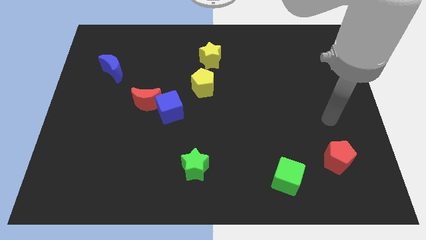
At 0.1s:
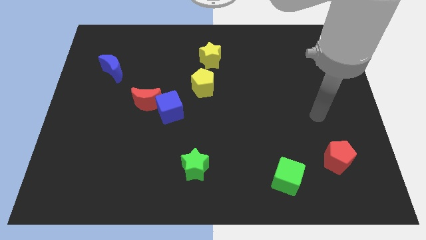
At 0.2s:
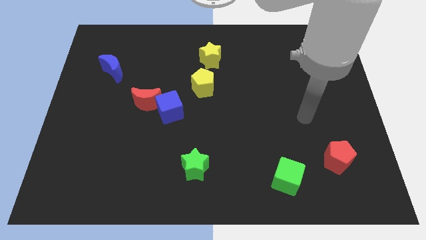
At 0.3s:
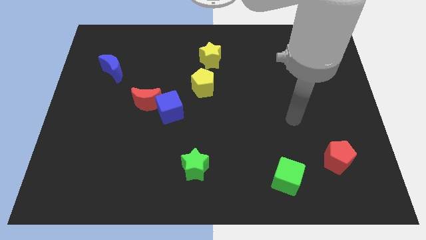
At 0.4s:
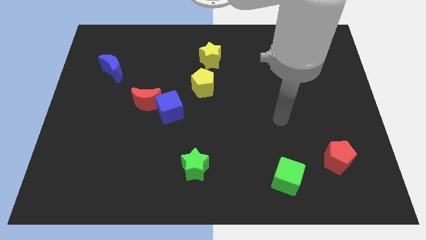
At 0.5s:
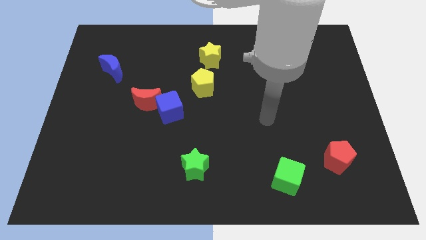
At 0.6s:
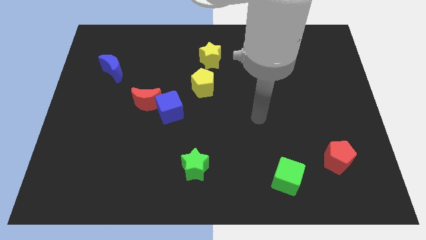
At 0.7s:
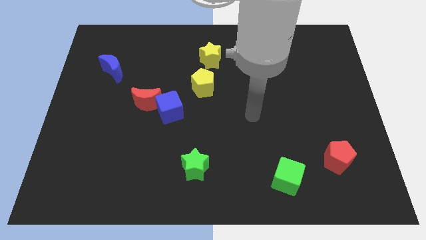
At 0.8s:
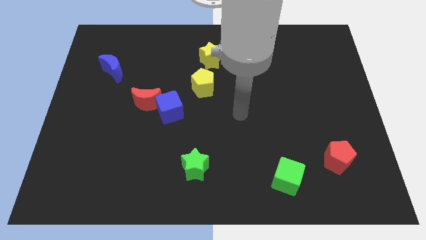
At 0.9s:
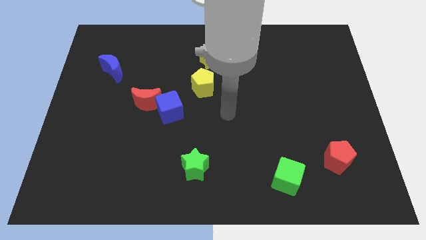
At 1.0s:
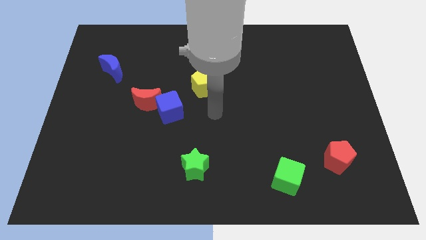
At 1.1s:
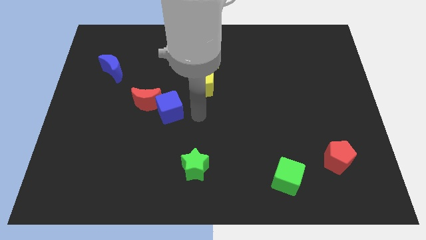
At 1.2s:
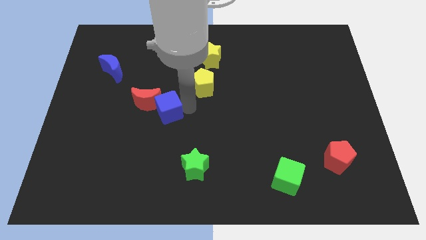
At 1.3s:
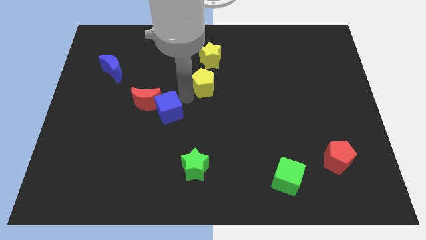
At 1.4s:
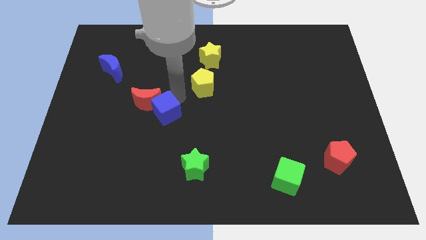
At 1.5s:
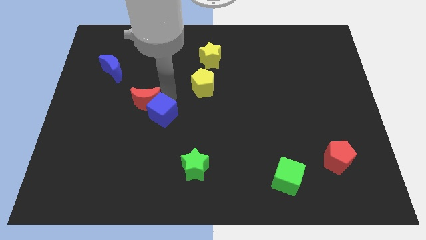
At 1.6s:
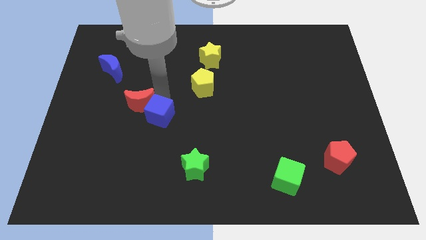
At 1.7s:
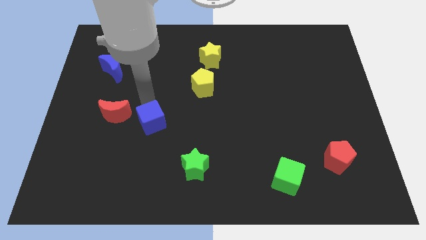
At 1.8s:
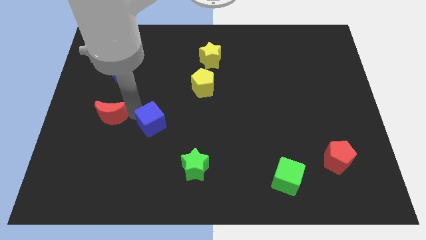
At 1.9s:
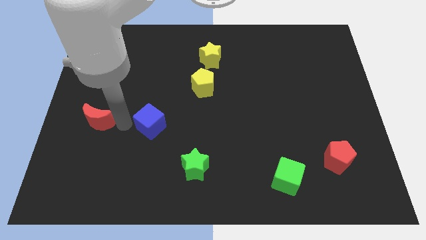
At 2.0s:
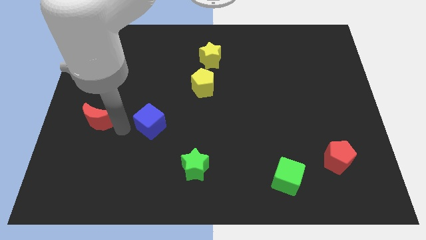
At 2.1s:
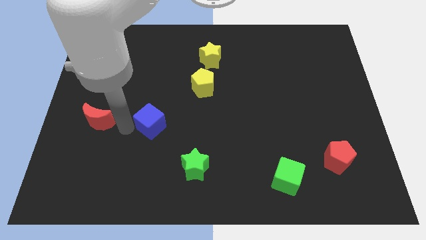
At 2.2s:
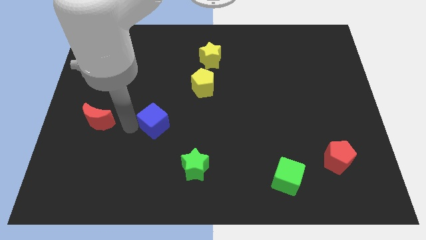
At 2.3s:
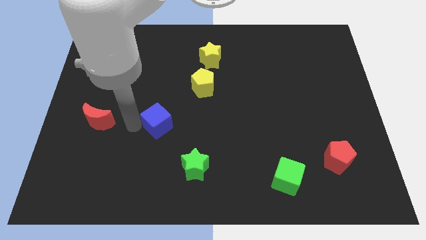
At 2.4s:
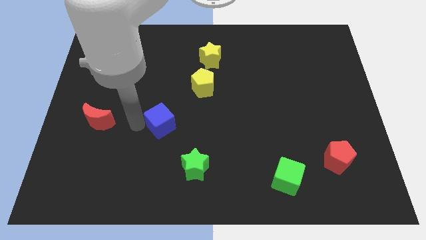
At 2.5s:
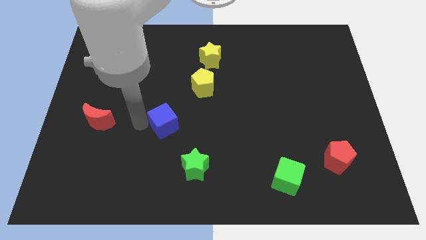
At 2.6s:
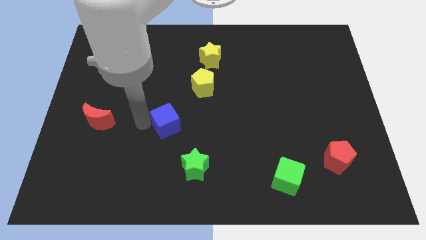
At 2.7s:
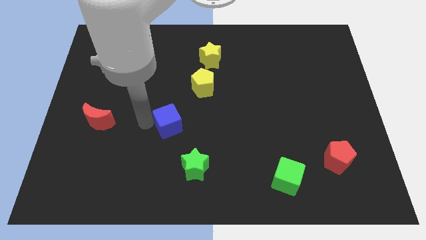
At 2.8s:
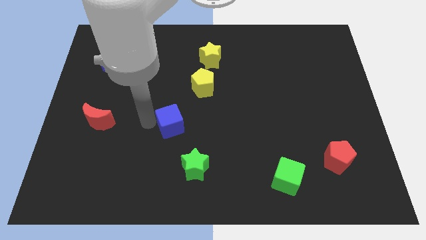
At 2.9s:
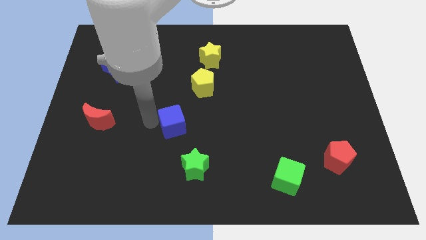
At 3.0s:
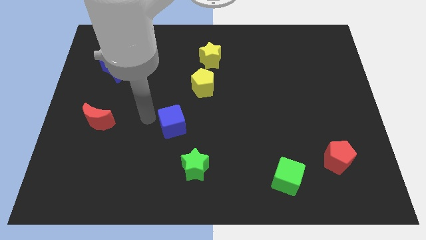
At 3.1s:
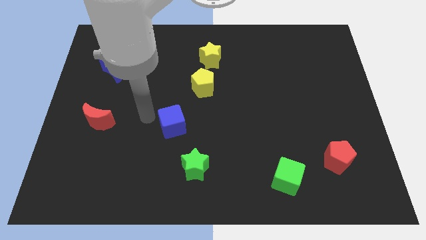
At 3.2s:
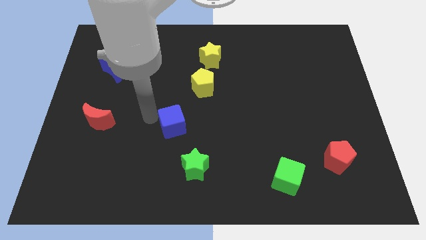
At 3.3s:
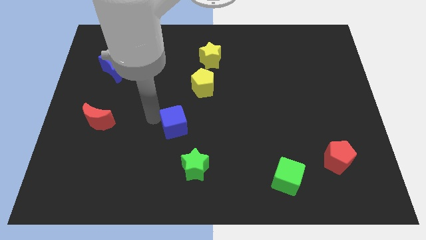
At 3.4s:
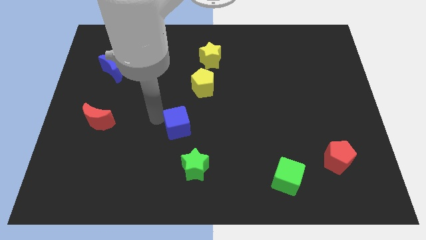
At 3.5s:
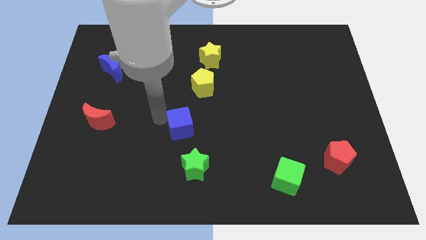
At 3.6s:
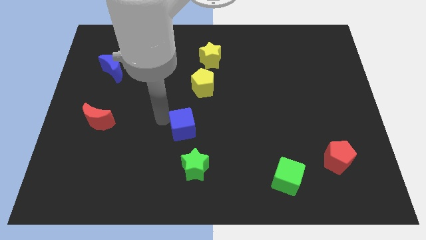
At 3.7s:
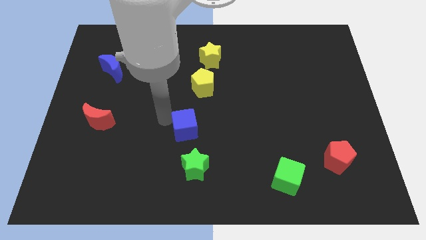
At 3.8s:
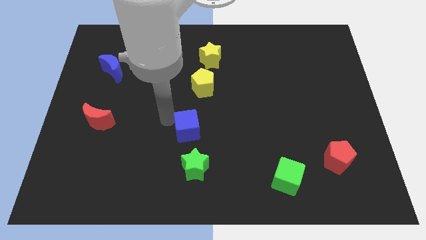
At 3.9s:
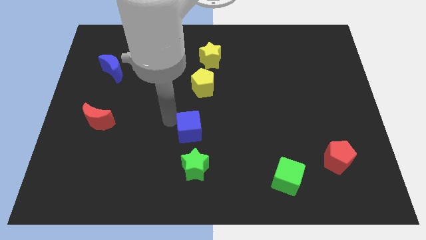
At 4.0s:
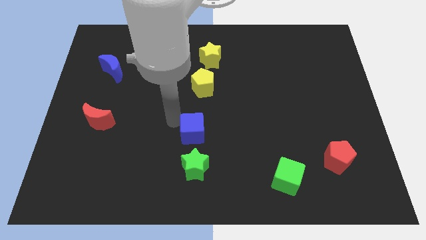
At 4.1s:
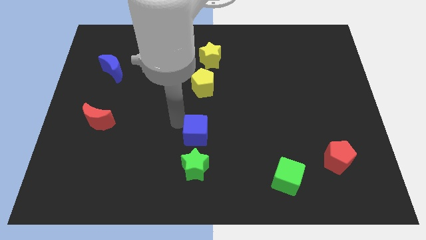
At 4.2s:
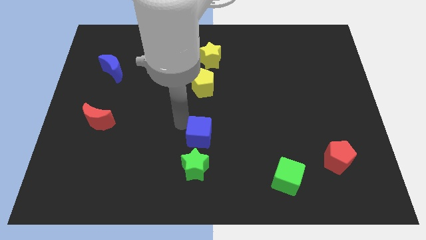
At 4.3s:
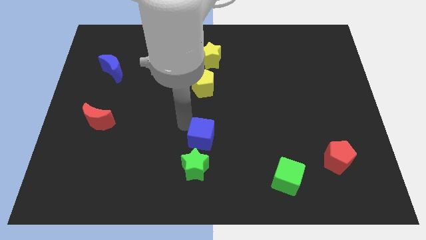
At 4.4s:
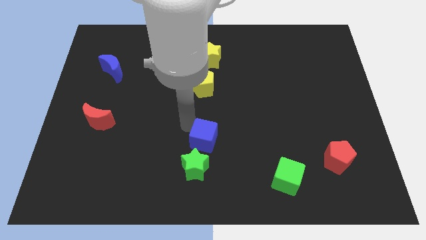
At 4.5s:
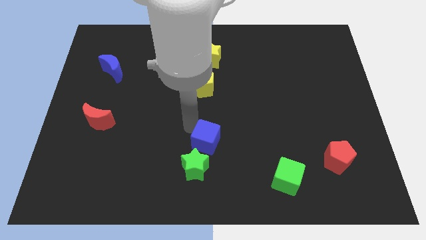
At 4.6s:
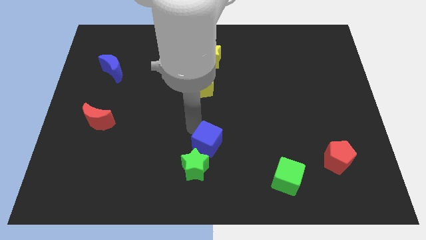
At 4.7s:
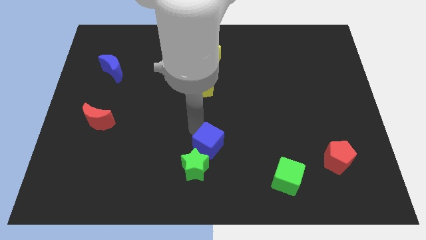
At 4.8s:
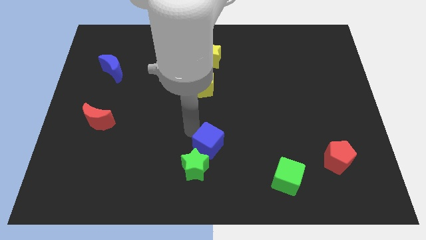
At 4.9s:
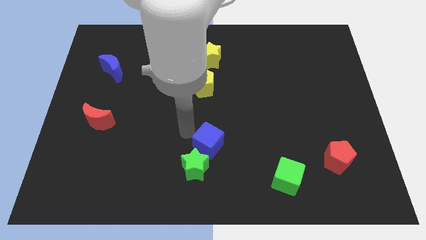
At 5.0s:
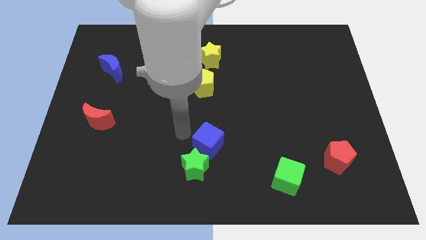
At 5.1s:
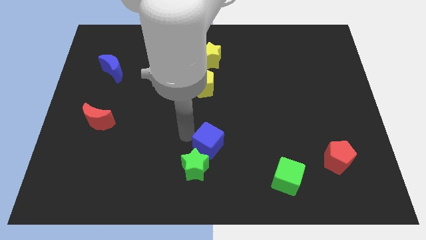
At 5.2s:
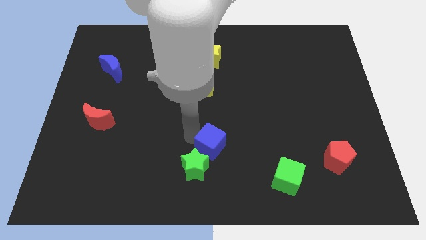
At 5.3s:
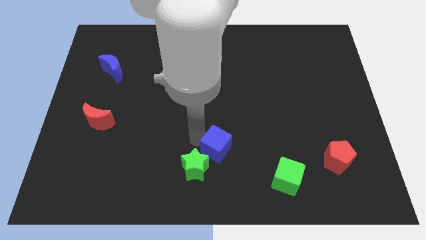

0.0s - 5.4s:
slide the blue cube just right of the green star

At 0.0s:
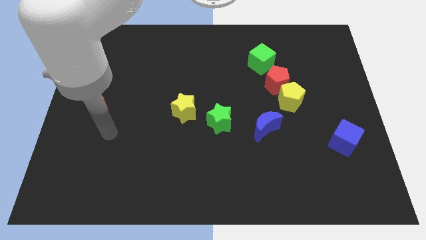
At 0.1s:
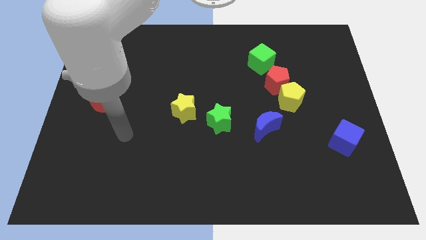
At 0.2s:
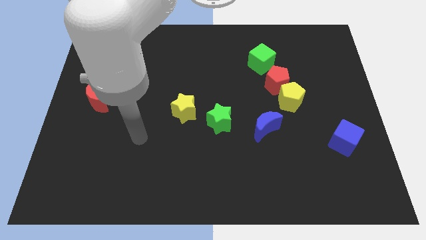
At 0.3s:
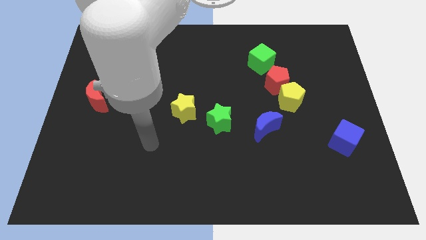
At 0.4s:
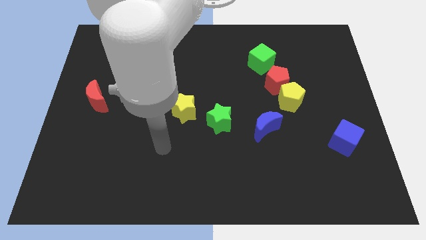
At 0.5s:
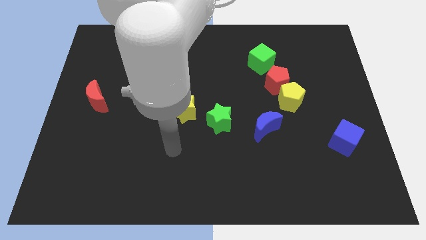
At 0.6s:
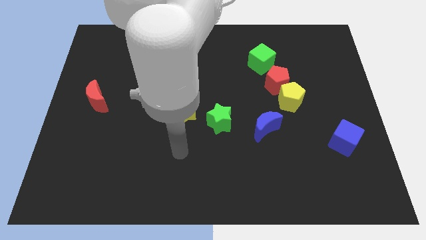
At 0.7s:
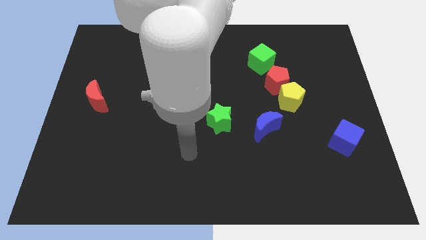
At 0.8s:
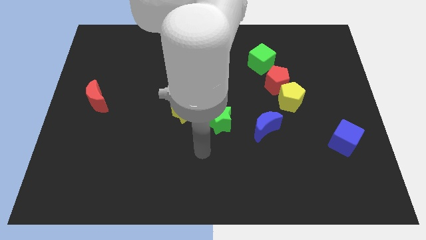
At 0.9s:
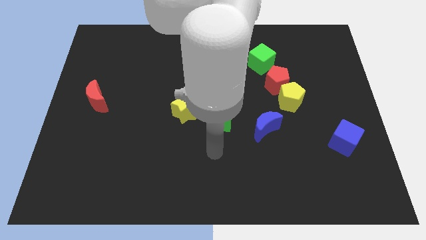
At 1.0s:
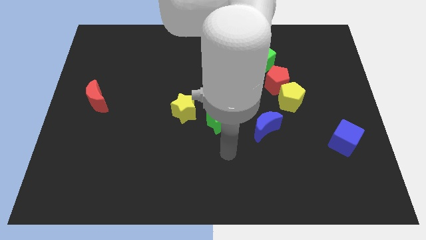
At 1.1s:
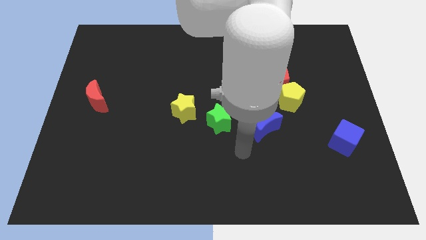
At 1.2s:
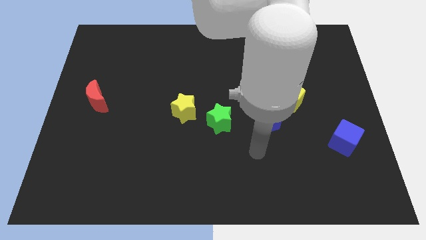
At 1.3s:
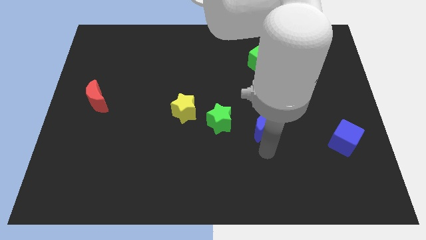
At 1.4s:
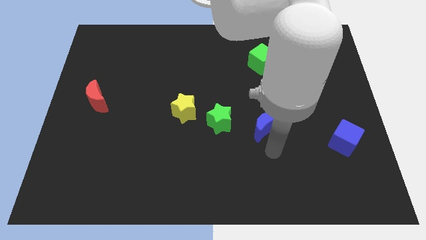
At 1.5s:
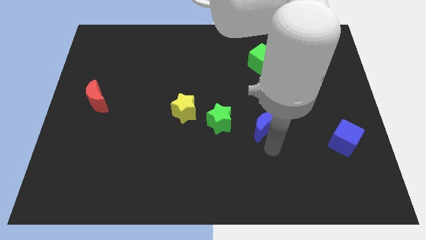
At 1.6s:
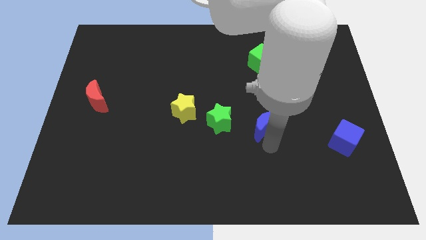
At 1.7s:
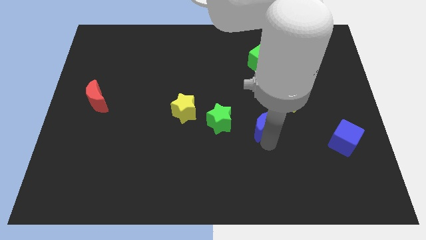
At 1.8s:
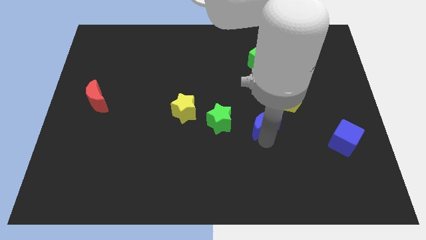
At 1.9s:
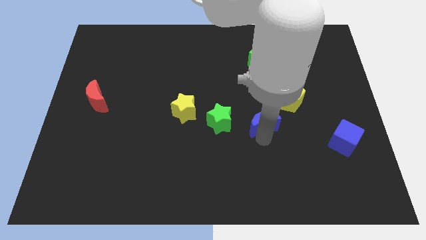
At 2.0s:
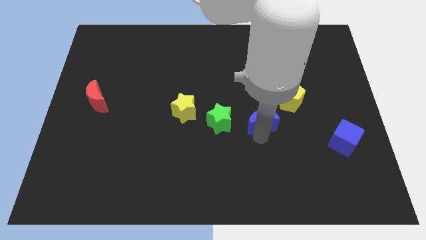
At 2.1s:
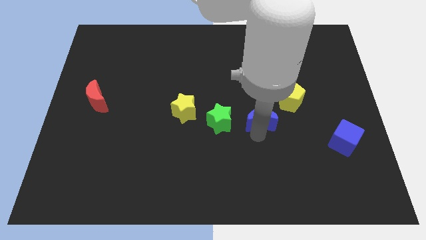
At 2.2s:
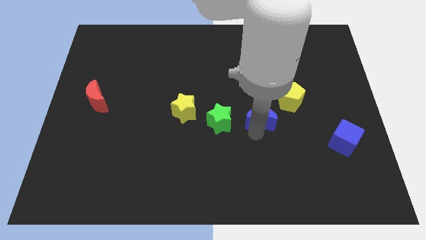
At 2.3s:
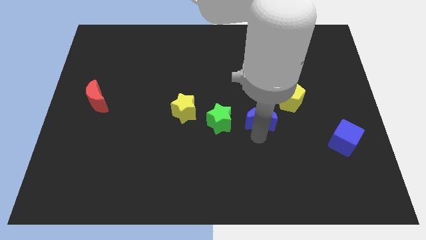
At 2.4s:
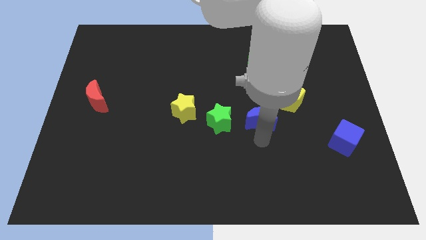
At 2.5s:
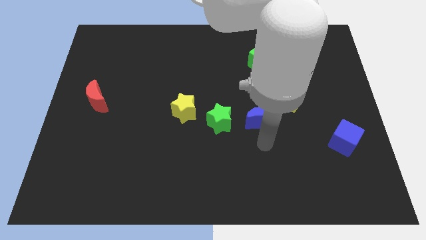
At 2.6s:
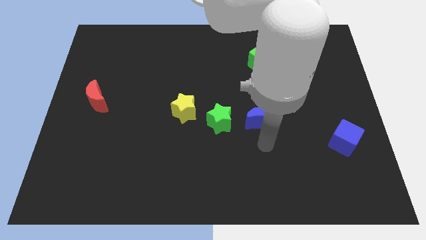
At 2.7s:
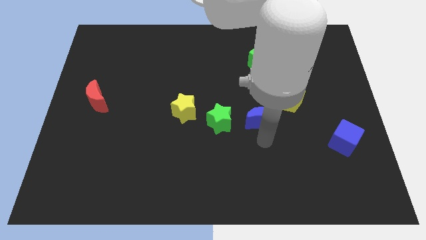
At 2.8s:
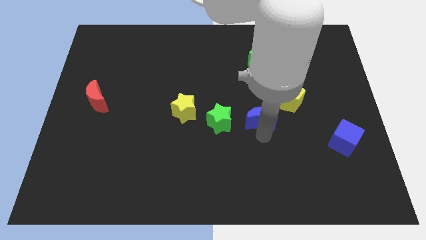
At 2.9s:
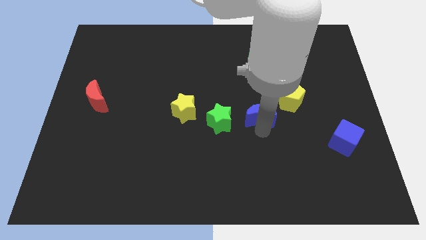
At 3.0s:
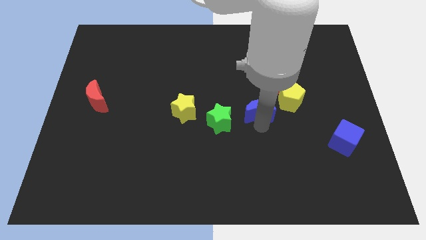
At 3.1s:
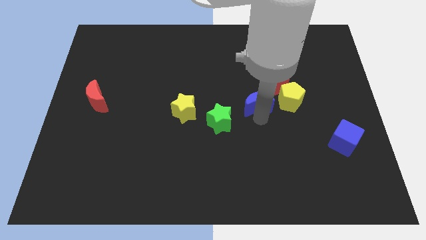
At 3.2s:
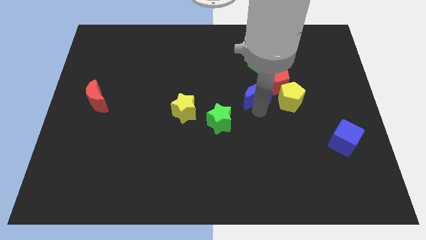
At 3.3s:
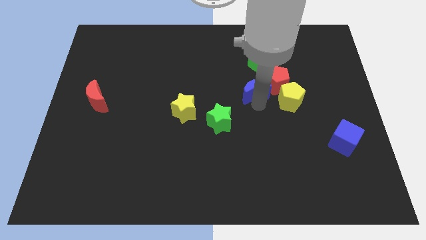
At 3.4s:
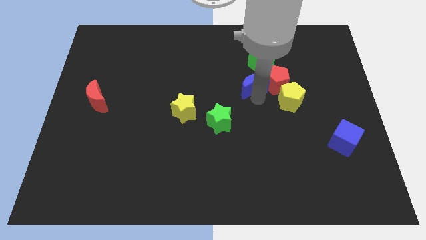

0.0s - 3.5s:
move the blue moon to the bottom left of the green cube
